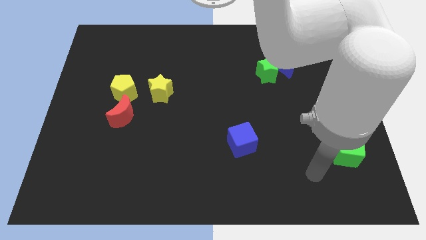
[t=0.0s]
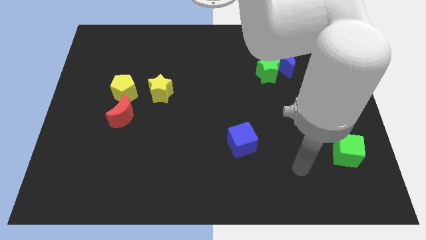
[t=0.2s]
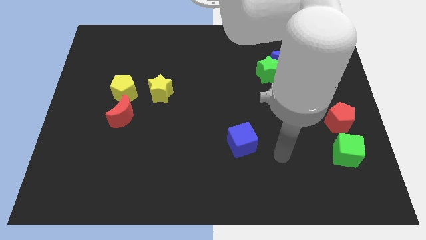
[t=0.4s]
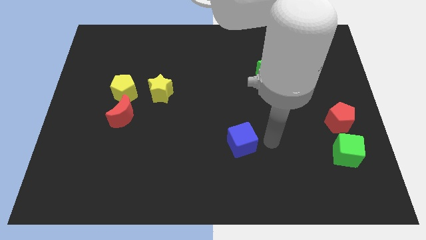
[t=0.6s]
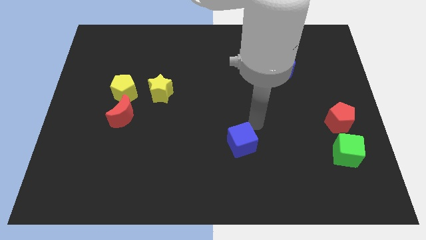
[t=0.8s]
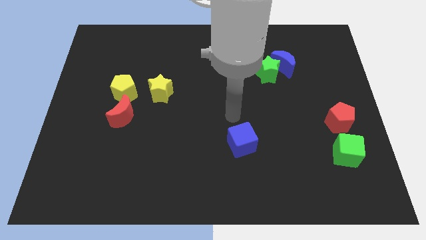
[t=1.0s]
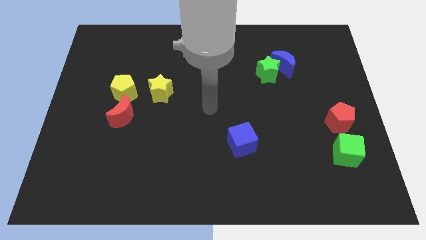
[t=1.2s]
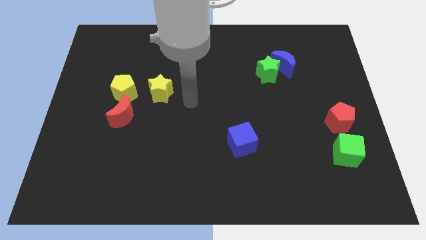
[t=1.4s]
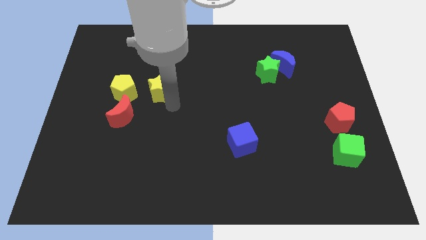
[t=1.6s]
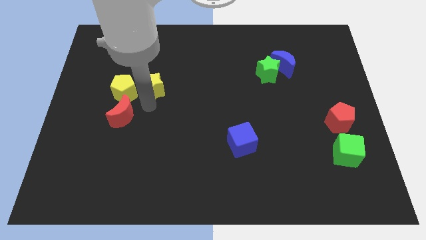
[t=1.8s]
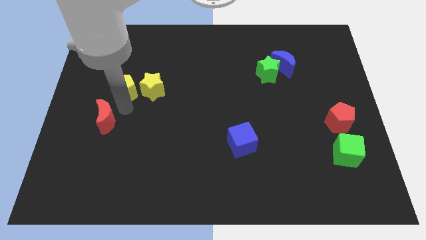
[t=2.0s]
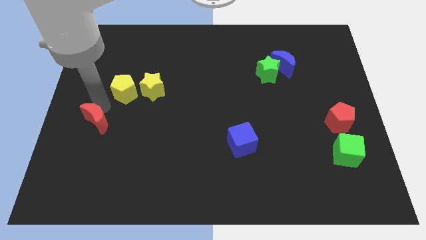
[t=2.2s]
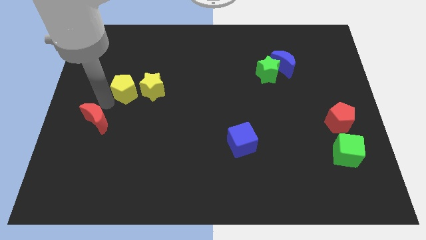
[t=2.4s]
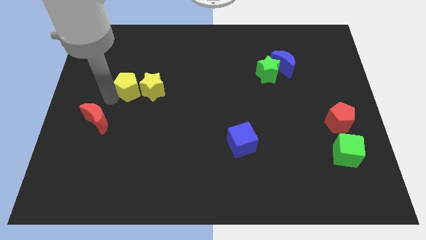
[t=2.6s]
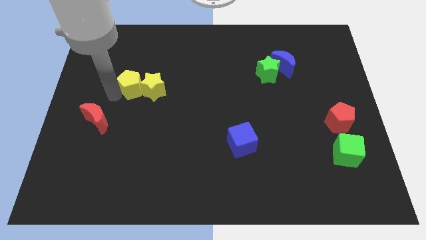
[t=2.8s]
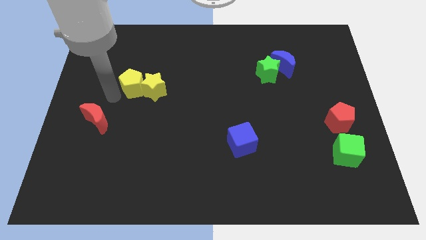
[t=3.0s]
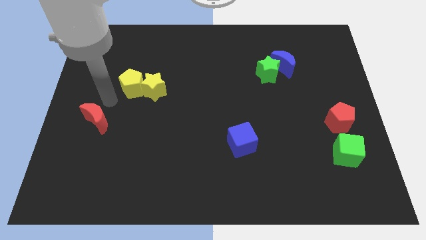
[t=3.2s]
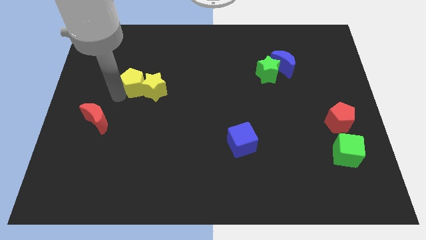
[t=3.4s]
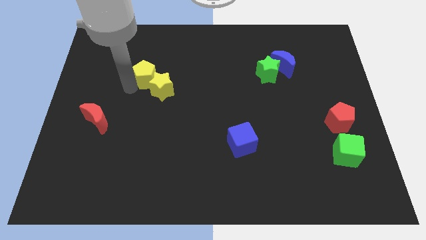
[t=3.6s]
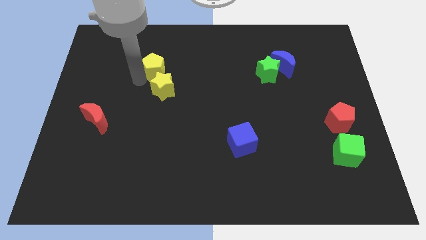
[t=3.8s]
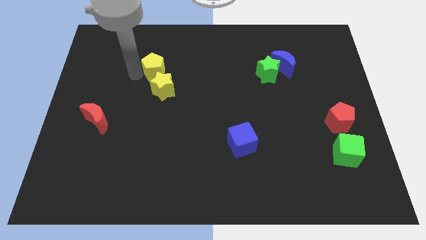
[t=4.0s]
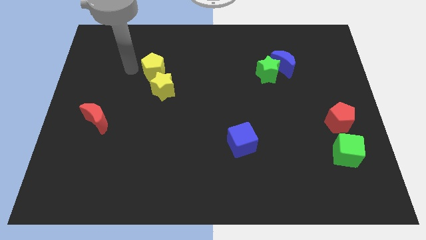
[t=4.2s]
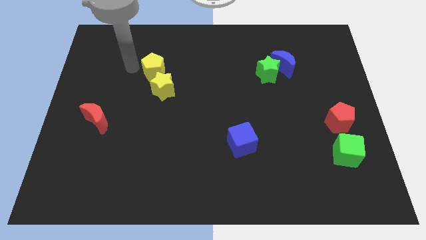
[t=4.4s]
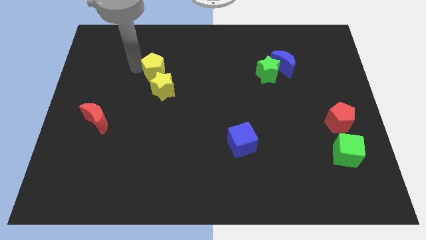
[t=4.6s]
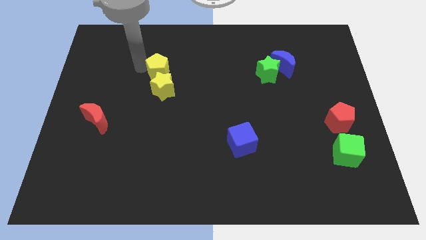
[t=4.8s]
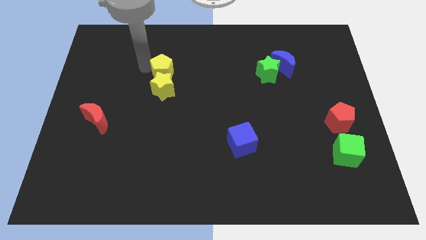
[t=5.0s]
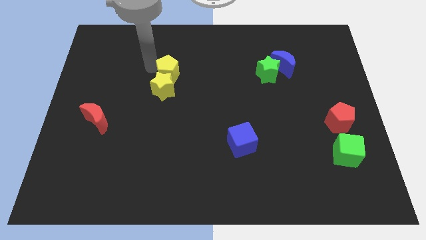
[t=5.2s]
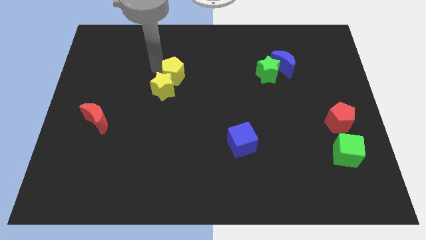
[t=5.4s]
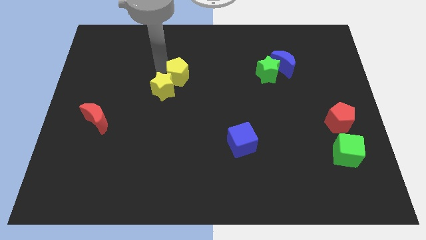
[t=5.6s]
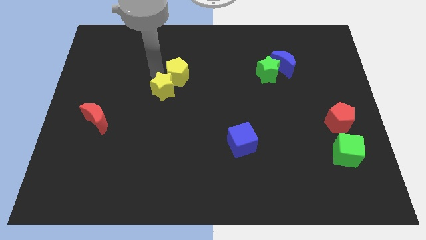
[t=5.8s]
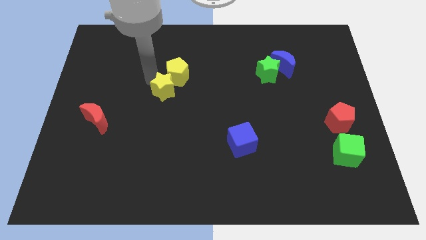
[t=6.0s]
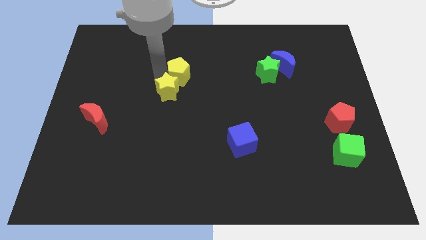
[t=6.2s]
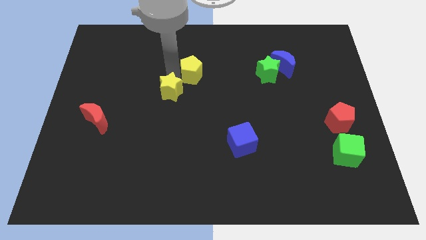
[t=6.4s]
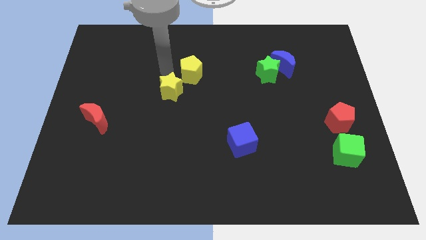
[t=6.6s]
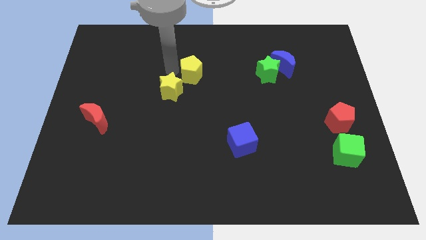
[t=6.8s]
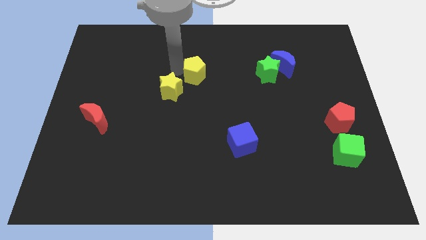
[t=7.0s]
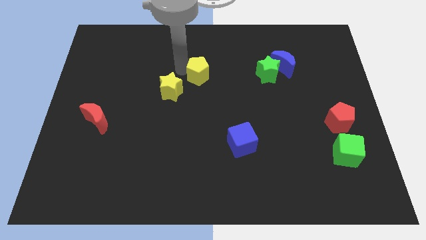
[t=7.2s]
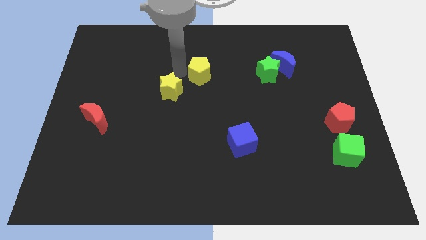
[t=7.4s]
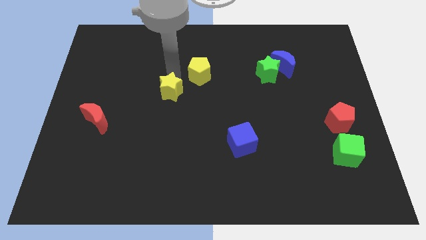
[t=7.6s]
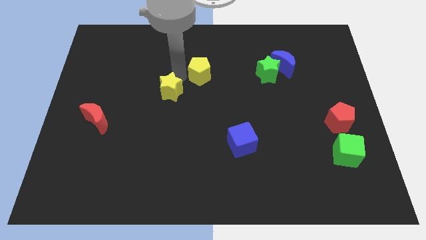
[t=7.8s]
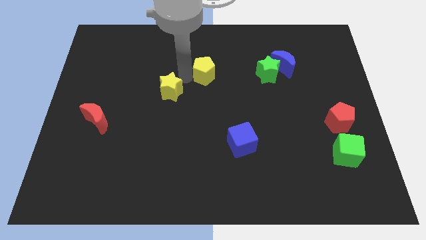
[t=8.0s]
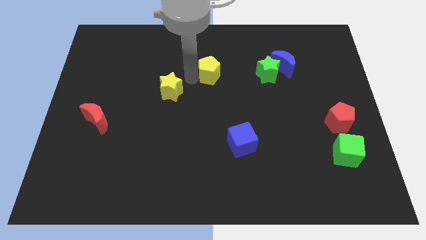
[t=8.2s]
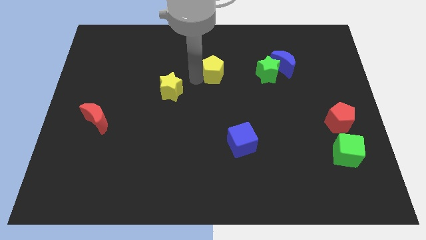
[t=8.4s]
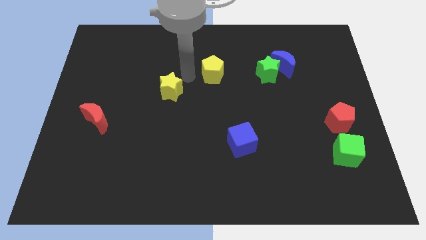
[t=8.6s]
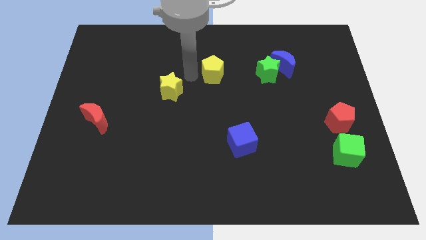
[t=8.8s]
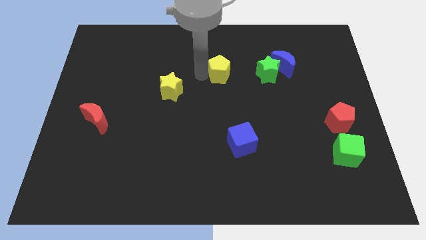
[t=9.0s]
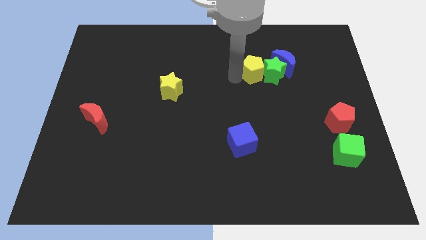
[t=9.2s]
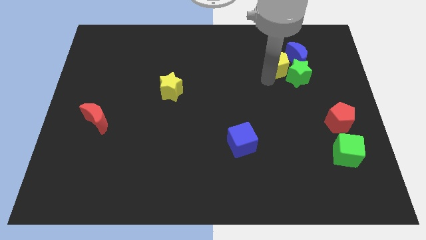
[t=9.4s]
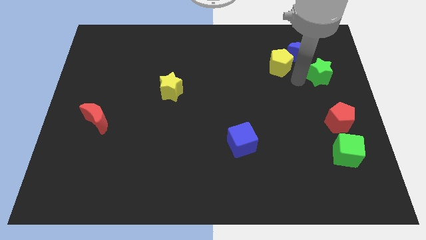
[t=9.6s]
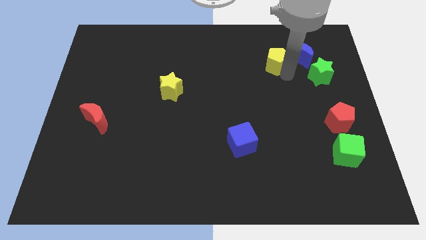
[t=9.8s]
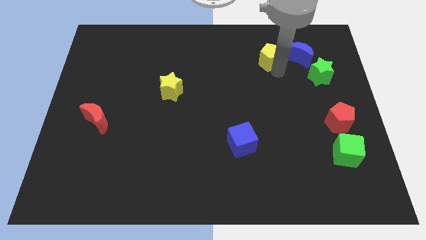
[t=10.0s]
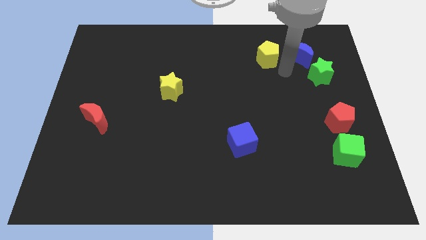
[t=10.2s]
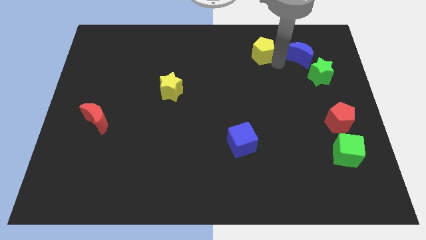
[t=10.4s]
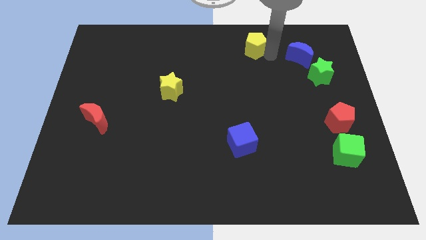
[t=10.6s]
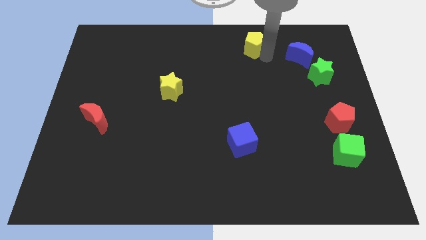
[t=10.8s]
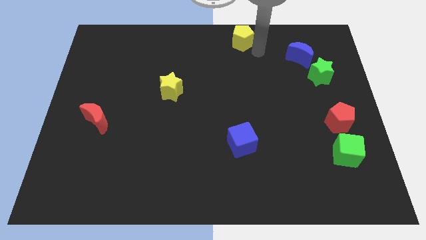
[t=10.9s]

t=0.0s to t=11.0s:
put the yellow pentagon to the top side
